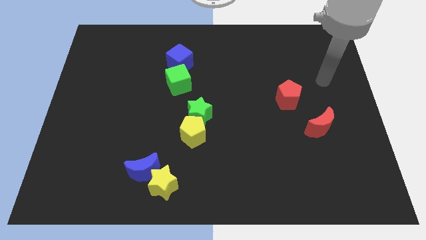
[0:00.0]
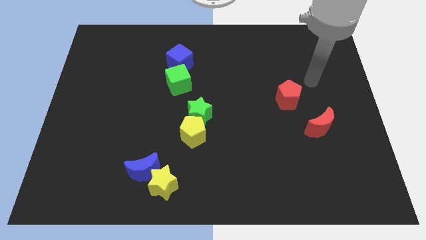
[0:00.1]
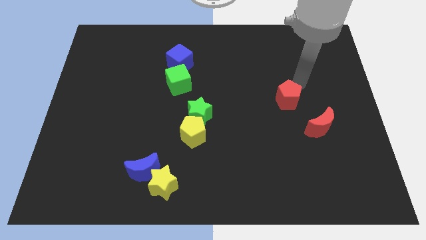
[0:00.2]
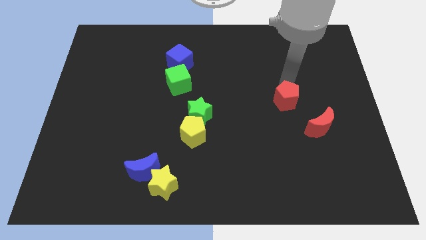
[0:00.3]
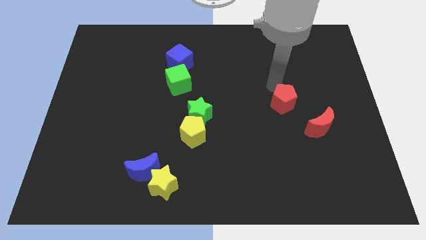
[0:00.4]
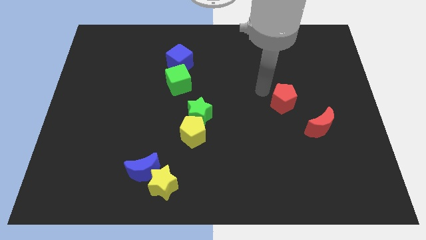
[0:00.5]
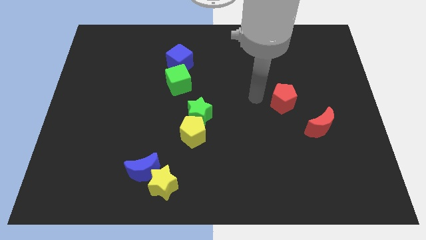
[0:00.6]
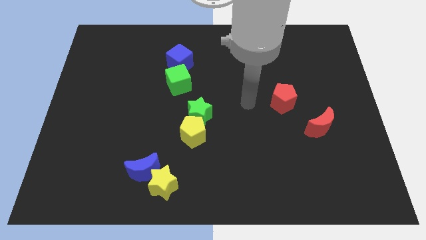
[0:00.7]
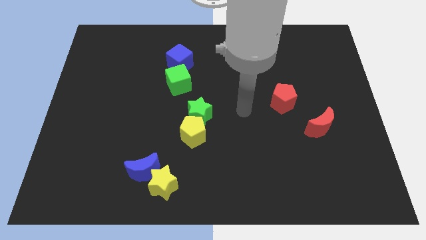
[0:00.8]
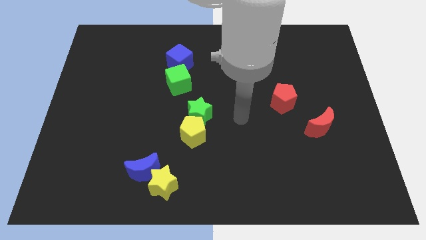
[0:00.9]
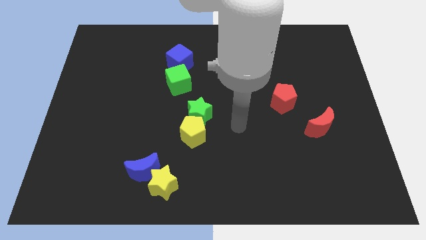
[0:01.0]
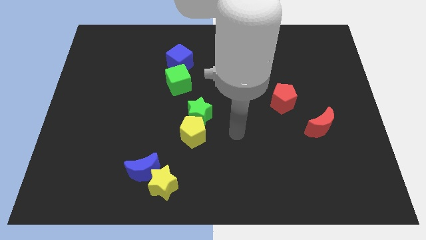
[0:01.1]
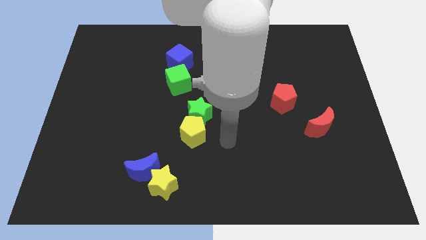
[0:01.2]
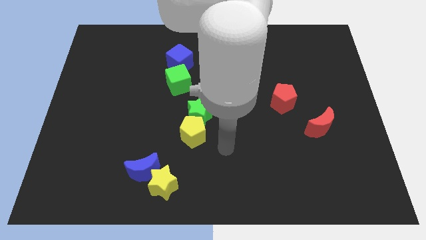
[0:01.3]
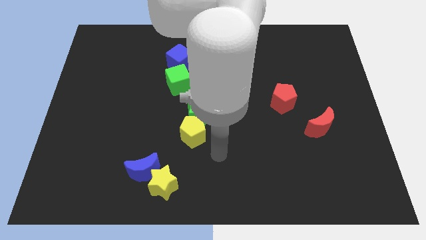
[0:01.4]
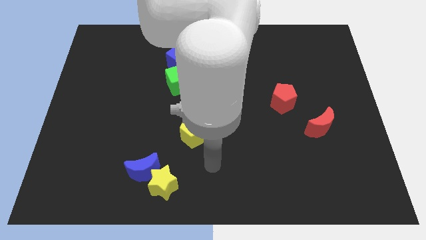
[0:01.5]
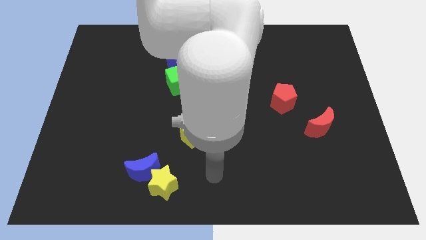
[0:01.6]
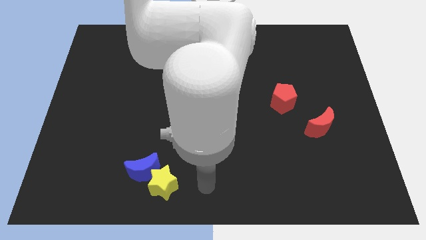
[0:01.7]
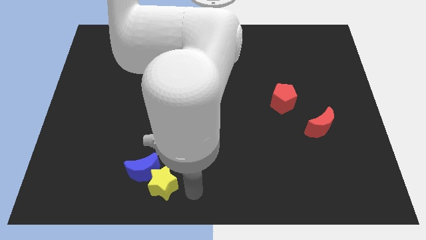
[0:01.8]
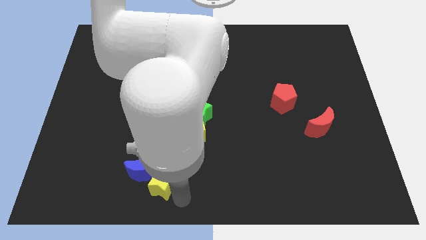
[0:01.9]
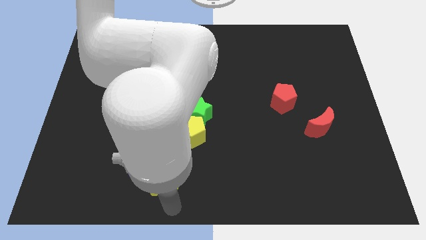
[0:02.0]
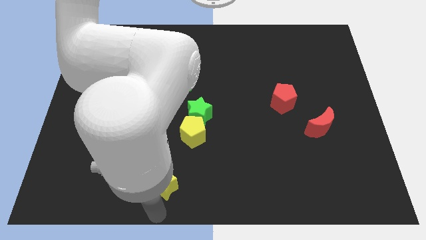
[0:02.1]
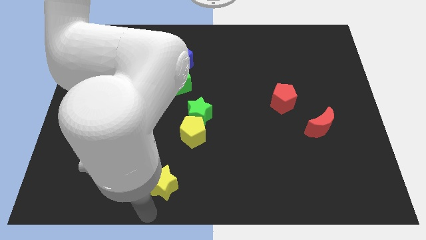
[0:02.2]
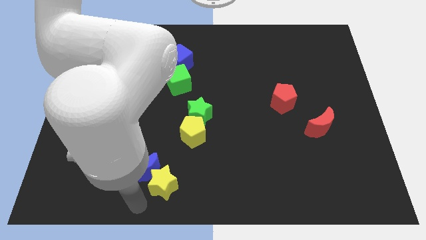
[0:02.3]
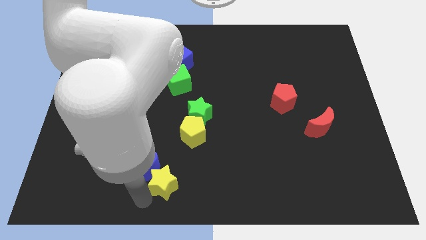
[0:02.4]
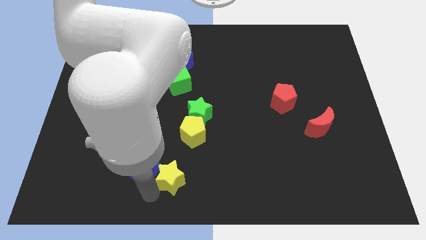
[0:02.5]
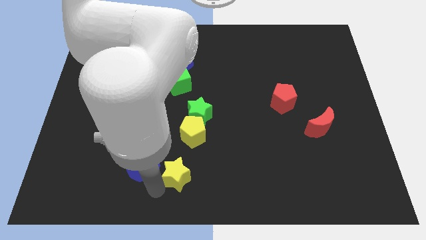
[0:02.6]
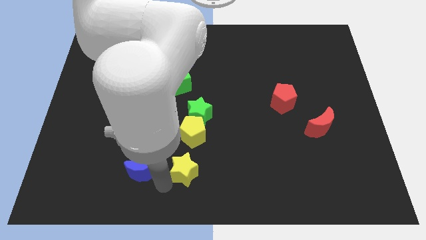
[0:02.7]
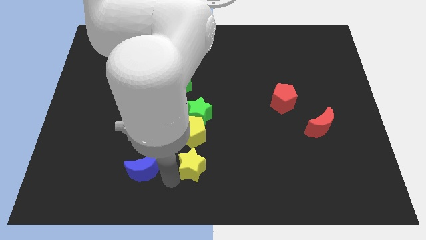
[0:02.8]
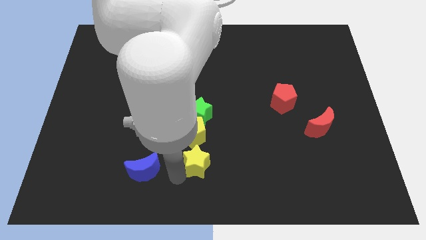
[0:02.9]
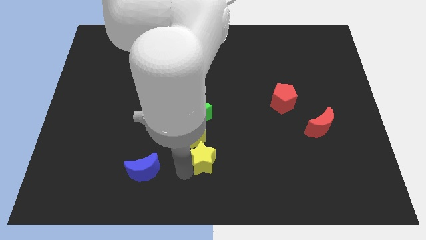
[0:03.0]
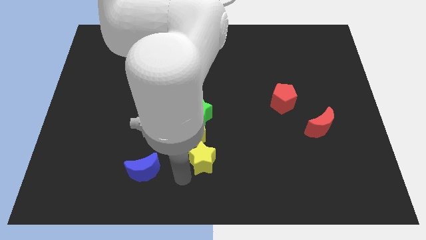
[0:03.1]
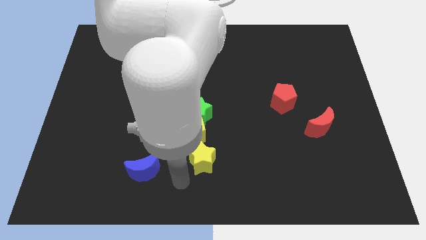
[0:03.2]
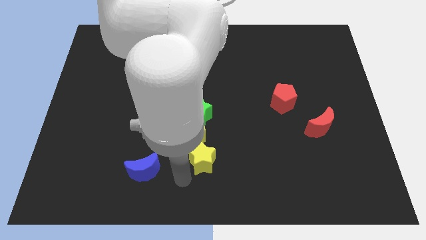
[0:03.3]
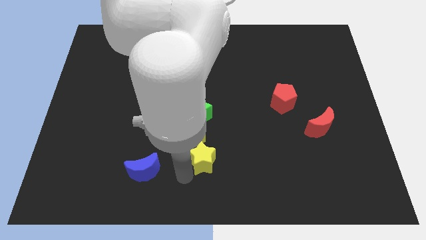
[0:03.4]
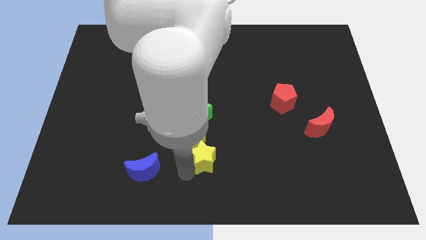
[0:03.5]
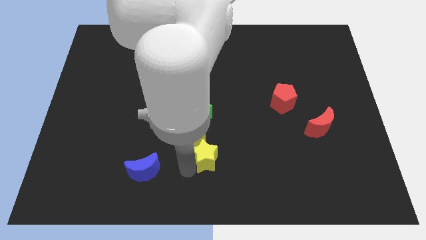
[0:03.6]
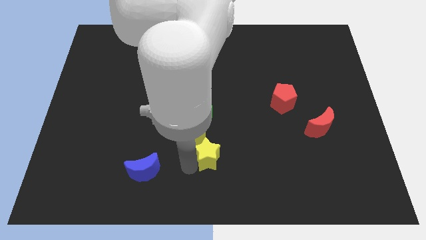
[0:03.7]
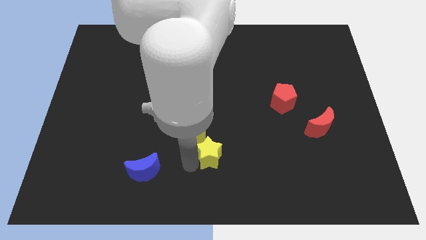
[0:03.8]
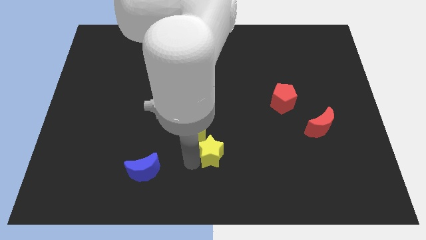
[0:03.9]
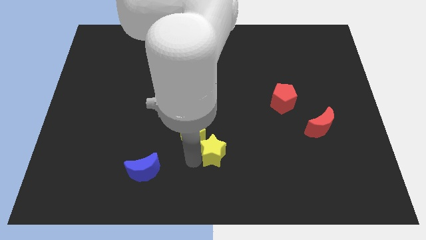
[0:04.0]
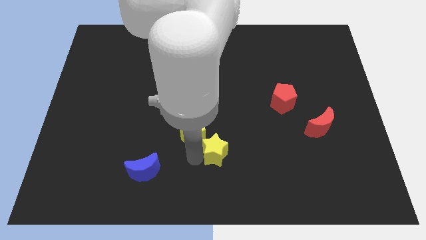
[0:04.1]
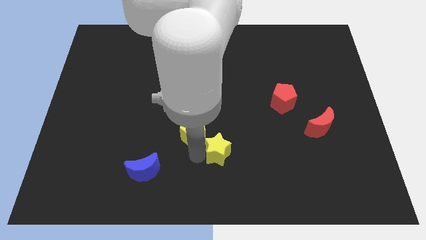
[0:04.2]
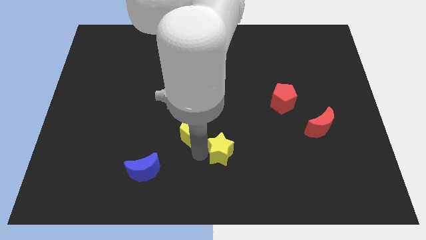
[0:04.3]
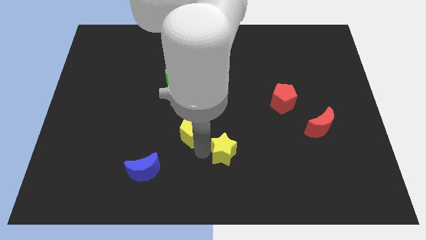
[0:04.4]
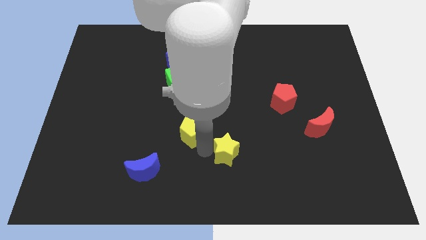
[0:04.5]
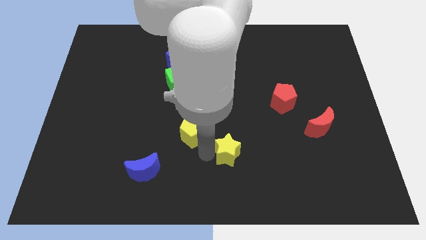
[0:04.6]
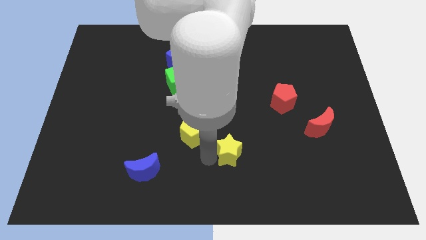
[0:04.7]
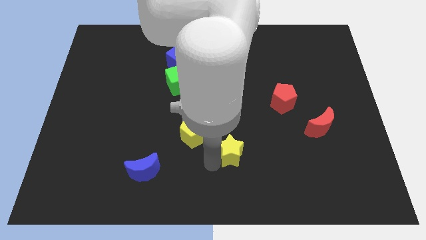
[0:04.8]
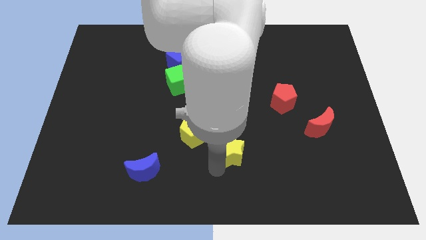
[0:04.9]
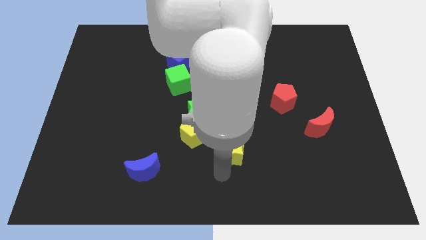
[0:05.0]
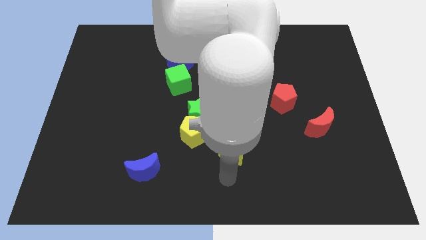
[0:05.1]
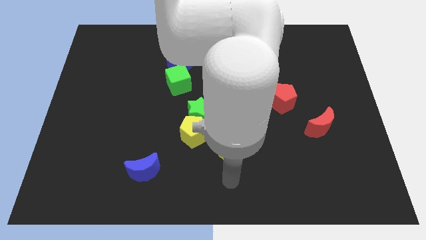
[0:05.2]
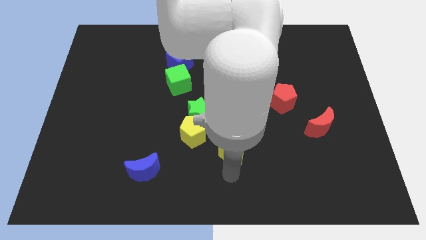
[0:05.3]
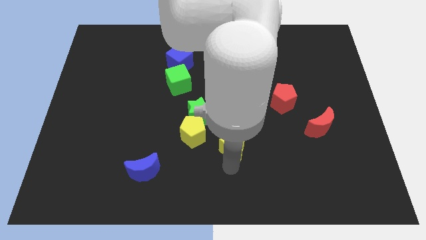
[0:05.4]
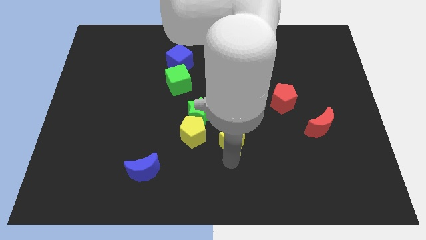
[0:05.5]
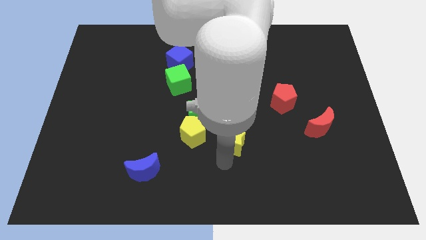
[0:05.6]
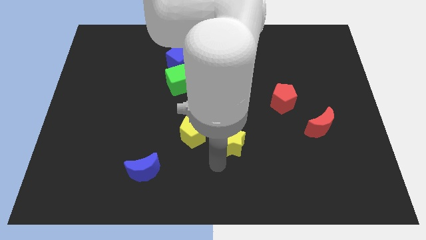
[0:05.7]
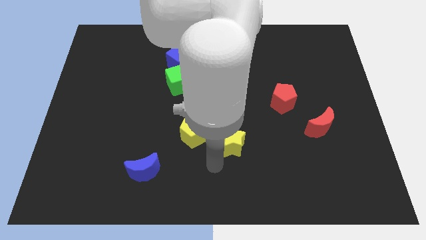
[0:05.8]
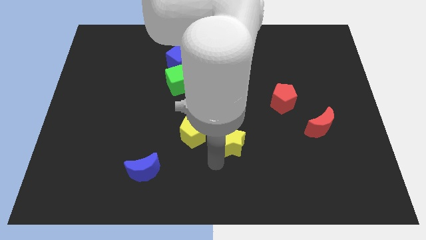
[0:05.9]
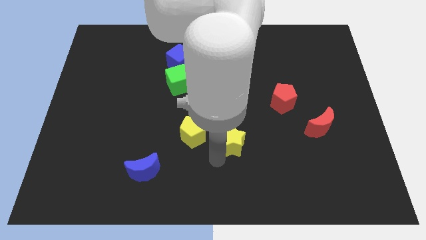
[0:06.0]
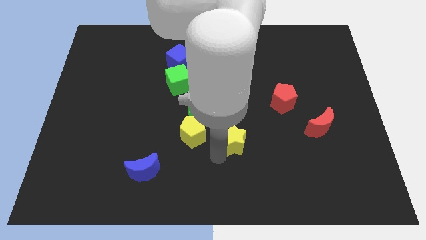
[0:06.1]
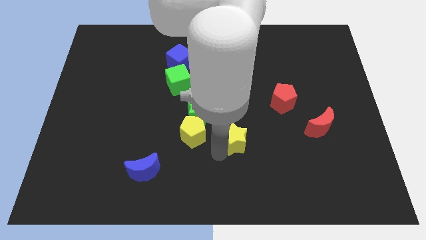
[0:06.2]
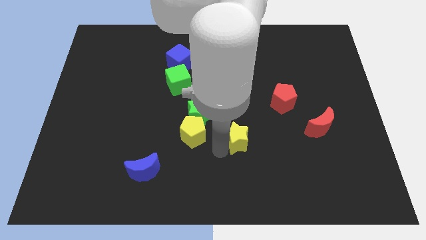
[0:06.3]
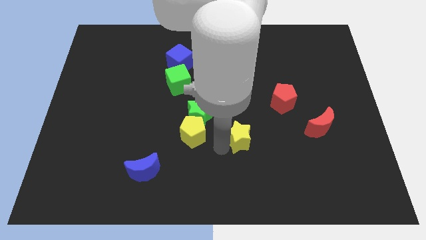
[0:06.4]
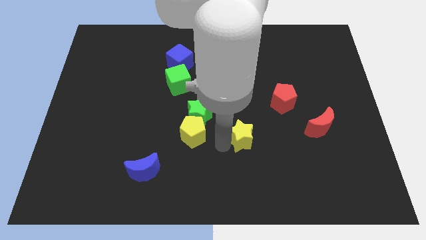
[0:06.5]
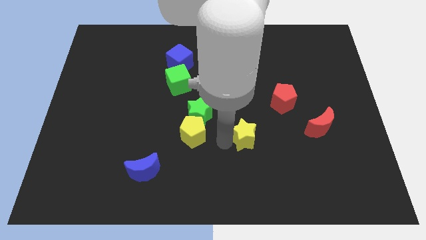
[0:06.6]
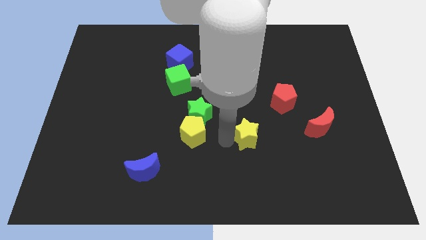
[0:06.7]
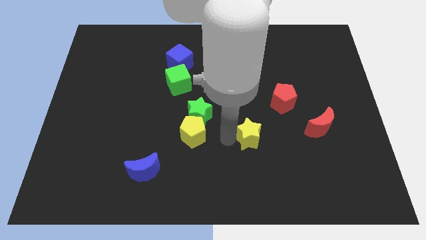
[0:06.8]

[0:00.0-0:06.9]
move the yellow star upwards and to the right

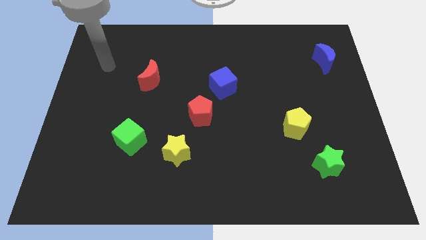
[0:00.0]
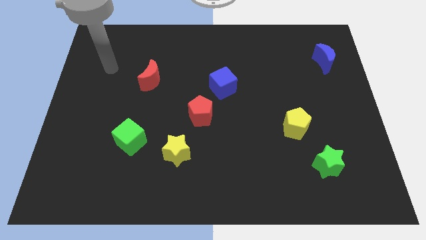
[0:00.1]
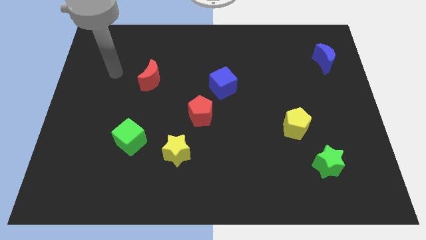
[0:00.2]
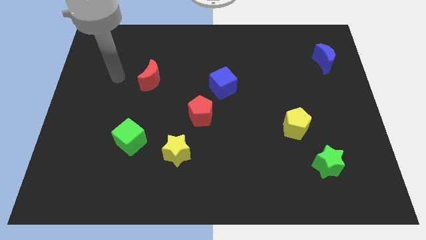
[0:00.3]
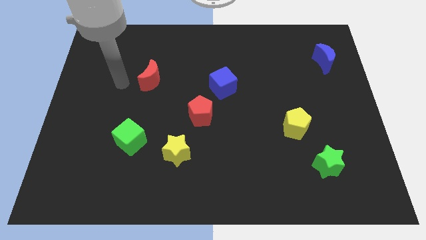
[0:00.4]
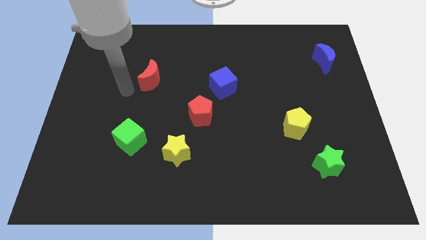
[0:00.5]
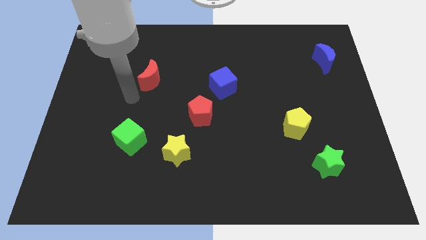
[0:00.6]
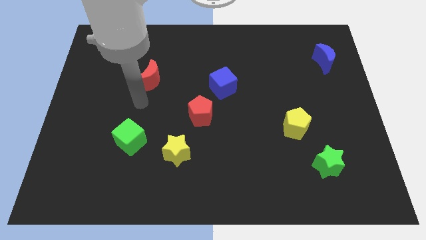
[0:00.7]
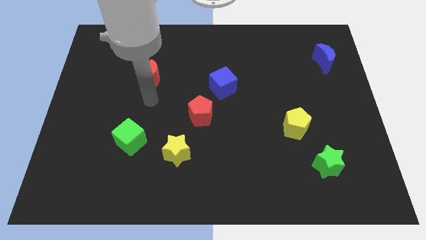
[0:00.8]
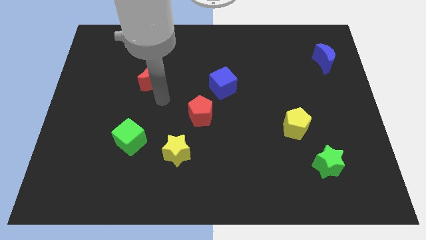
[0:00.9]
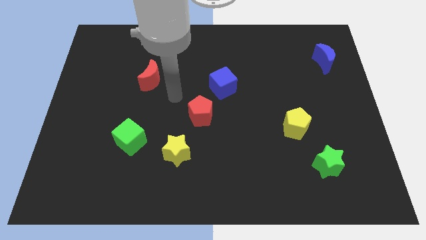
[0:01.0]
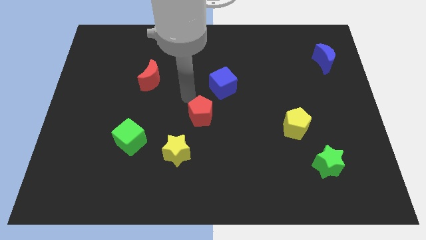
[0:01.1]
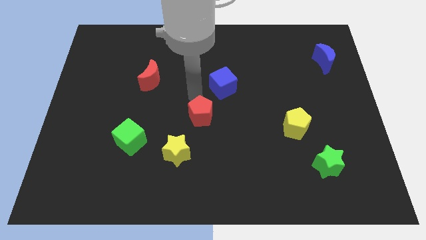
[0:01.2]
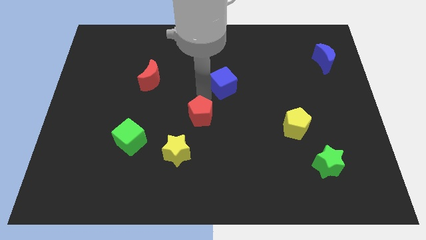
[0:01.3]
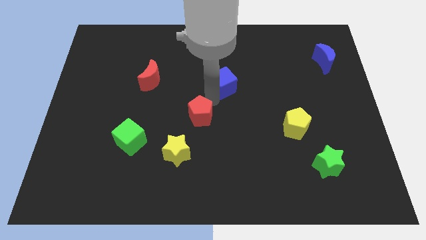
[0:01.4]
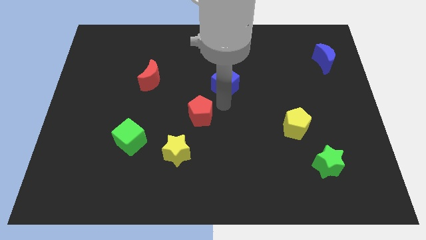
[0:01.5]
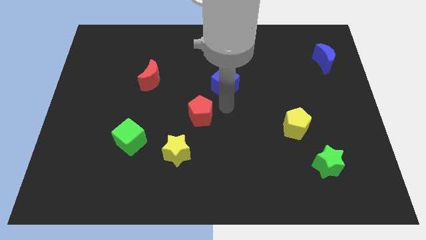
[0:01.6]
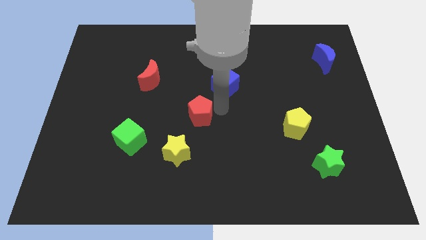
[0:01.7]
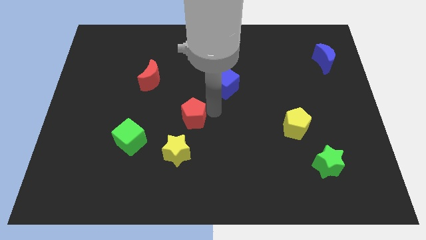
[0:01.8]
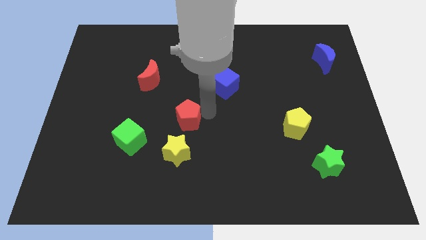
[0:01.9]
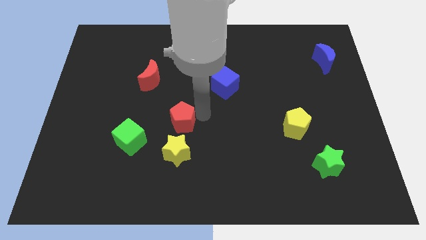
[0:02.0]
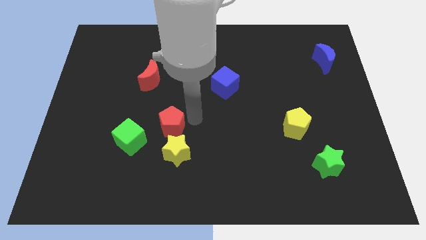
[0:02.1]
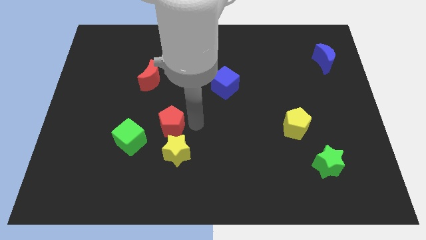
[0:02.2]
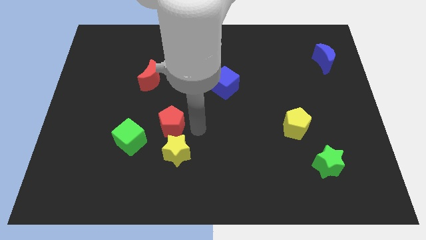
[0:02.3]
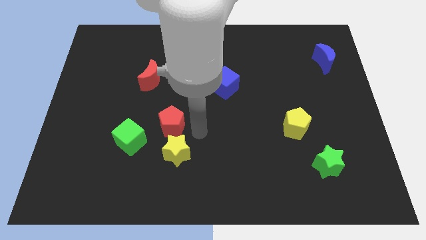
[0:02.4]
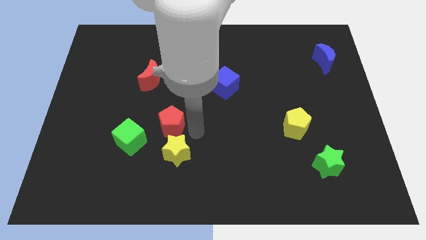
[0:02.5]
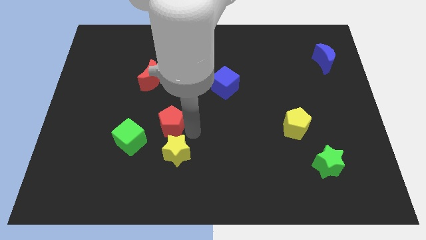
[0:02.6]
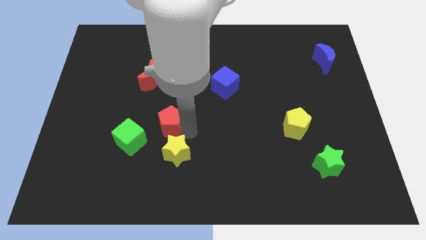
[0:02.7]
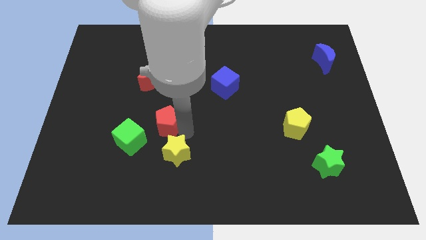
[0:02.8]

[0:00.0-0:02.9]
push the red pentagon to the left a little
